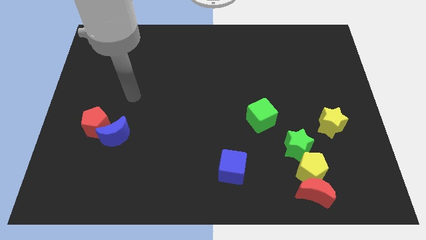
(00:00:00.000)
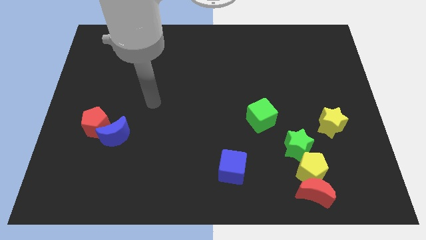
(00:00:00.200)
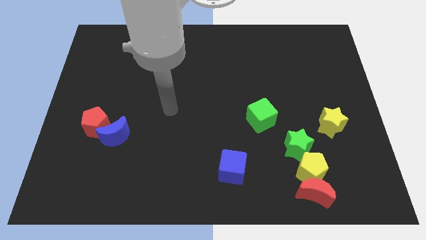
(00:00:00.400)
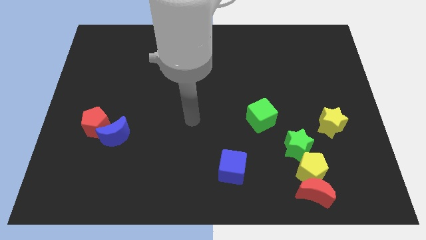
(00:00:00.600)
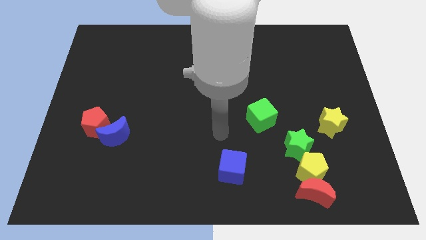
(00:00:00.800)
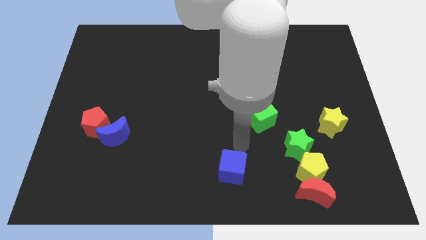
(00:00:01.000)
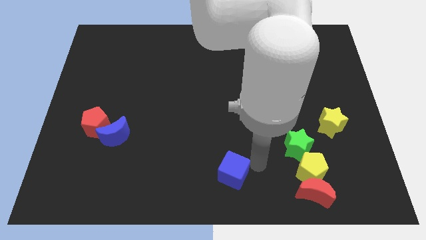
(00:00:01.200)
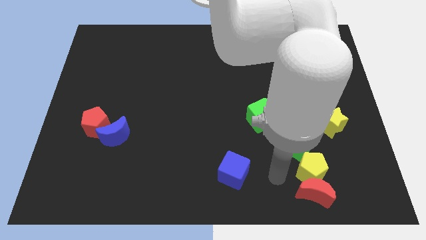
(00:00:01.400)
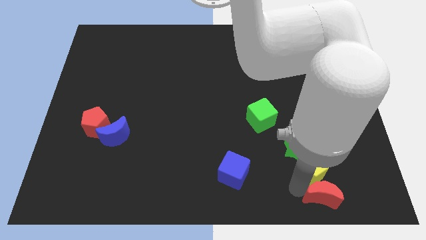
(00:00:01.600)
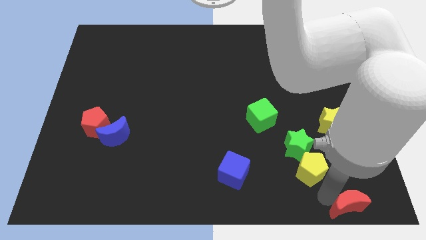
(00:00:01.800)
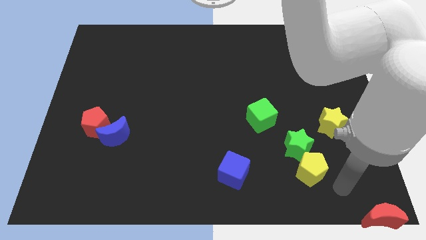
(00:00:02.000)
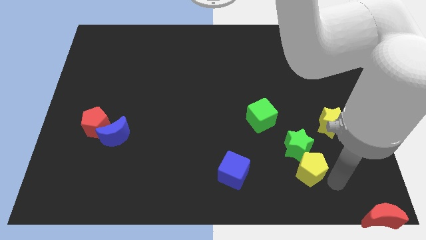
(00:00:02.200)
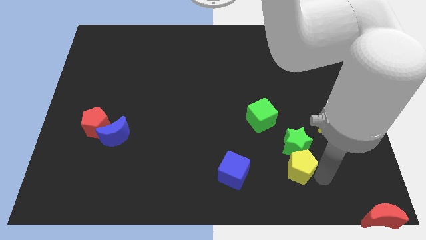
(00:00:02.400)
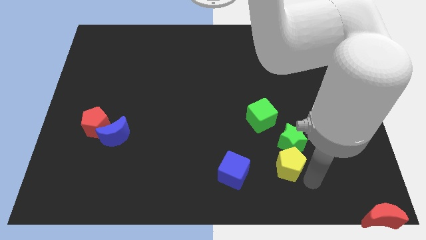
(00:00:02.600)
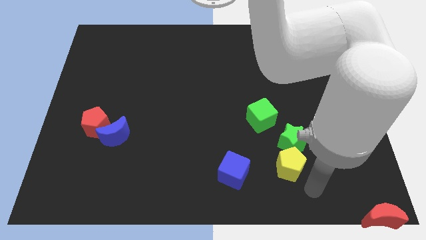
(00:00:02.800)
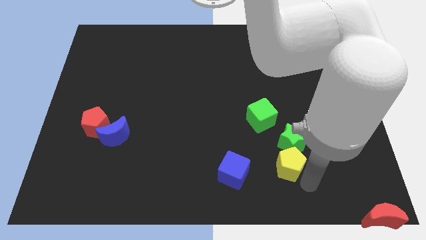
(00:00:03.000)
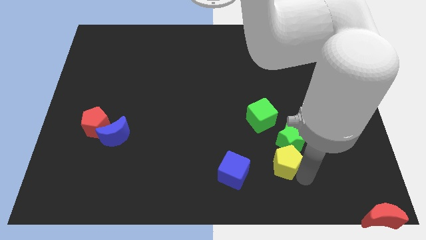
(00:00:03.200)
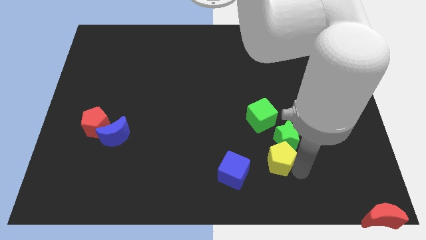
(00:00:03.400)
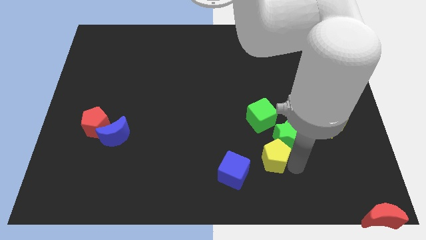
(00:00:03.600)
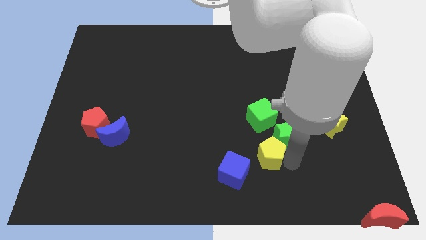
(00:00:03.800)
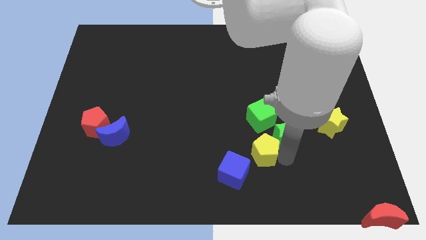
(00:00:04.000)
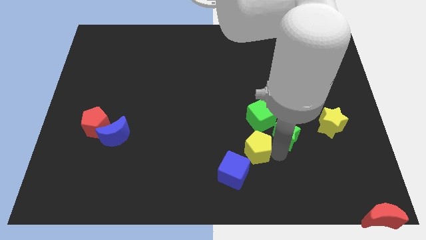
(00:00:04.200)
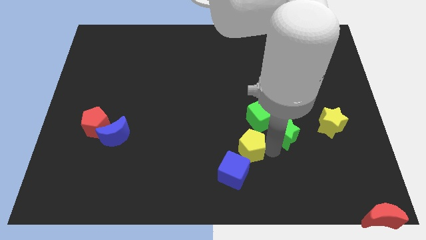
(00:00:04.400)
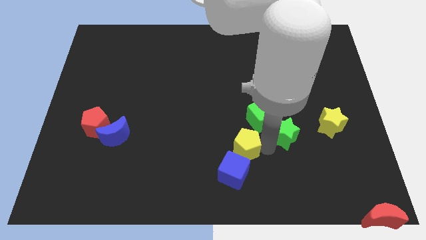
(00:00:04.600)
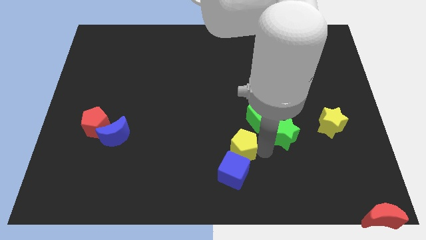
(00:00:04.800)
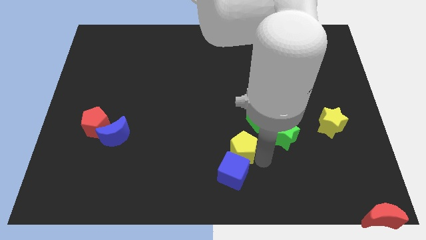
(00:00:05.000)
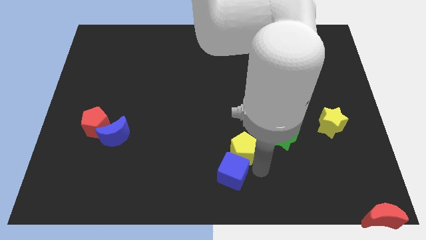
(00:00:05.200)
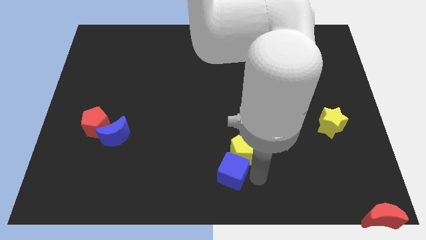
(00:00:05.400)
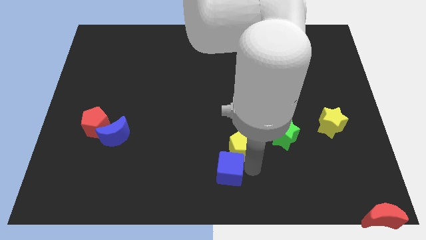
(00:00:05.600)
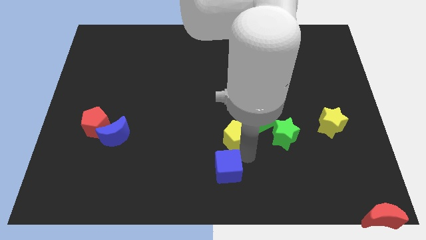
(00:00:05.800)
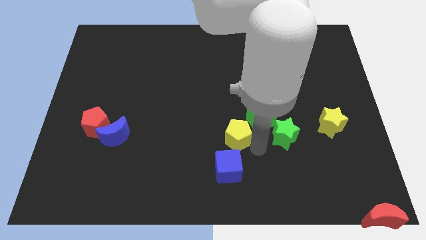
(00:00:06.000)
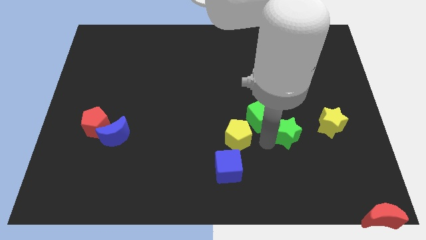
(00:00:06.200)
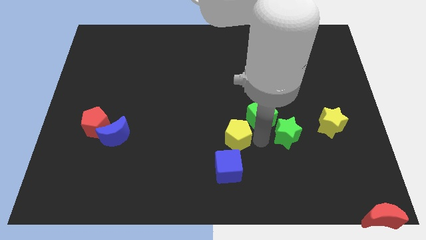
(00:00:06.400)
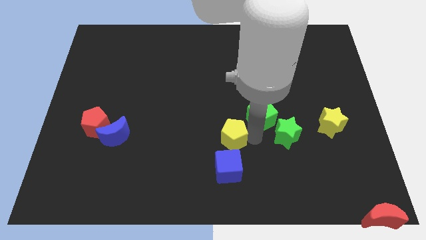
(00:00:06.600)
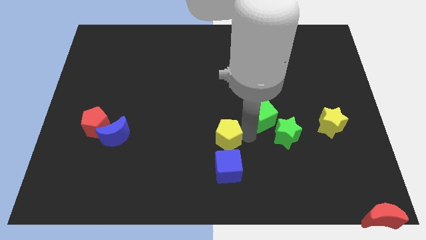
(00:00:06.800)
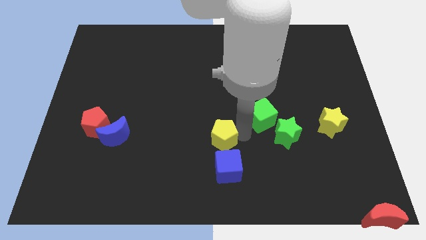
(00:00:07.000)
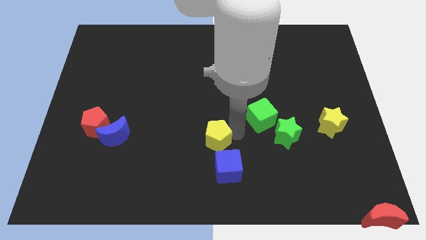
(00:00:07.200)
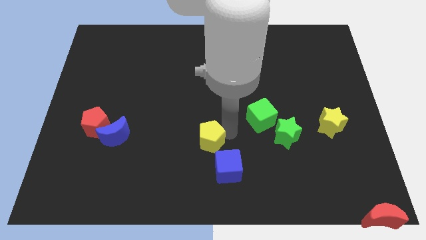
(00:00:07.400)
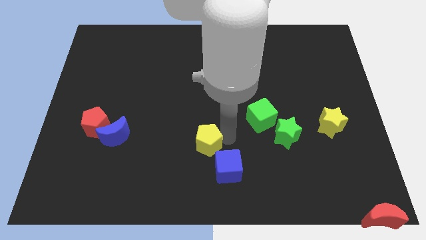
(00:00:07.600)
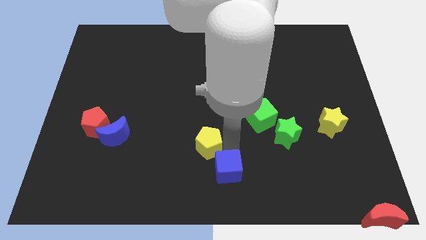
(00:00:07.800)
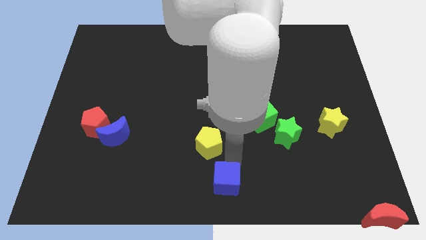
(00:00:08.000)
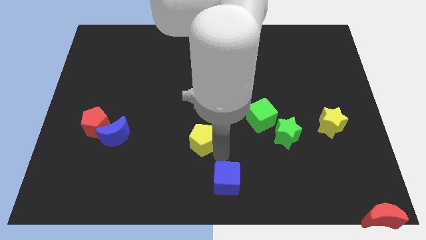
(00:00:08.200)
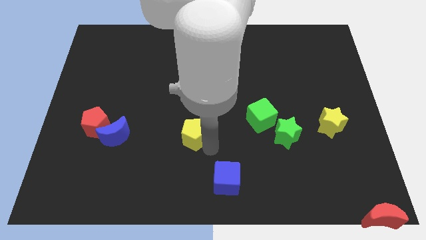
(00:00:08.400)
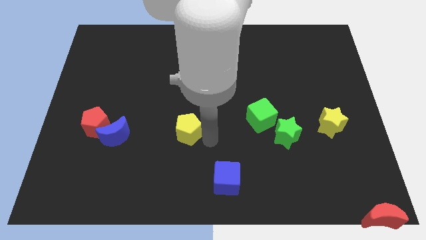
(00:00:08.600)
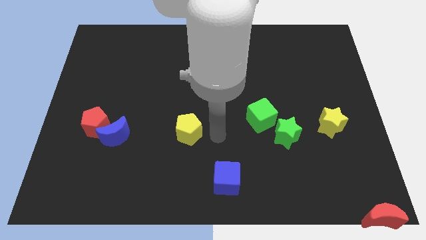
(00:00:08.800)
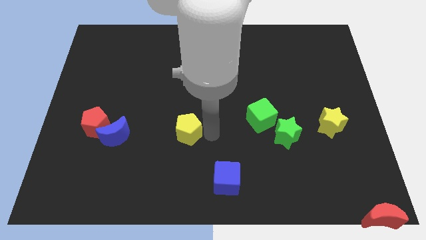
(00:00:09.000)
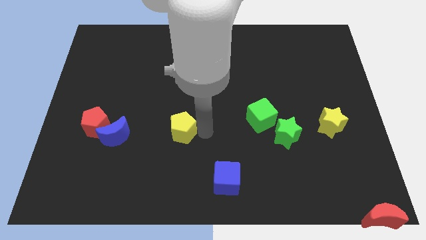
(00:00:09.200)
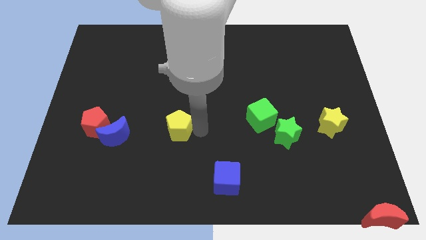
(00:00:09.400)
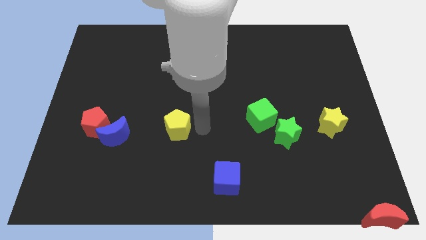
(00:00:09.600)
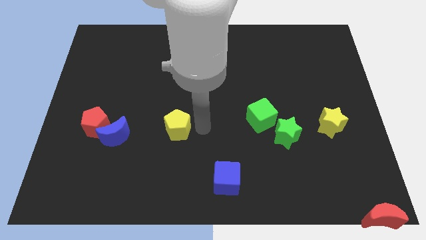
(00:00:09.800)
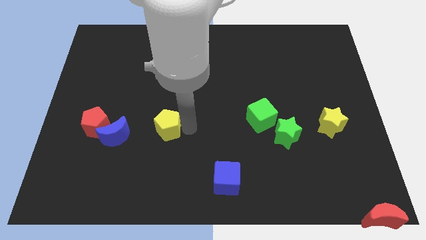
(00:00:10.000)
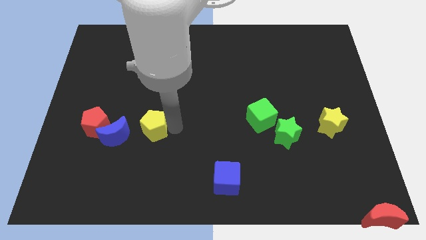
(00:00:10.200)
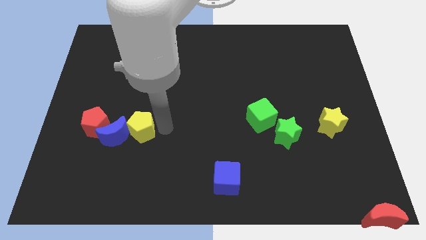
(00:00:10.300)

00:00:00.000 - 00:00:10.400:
put the yellow pentagon to the blue moon

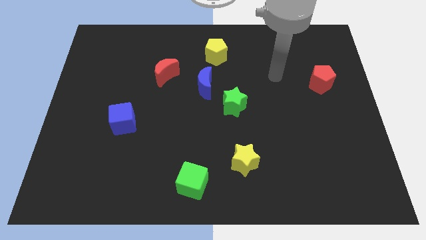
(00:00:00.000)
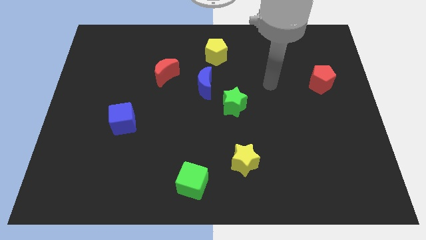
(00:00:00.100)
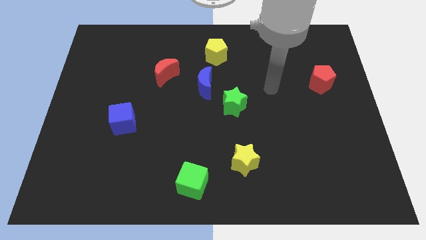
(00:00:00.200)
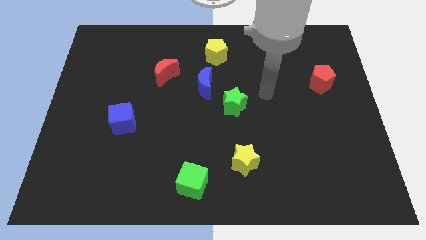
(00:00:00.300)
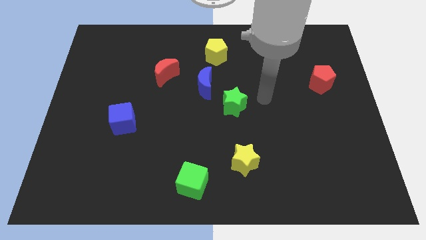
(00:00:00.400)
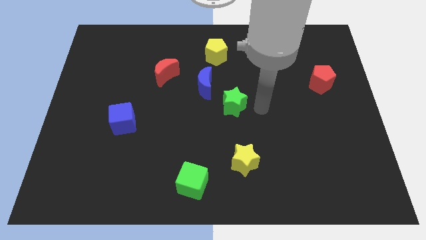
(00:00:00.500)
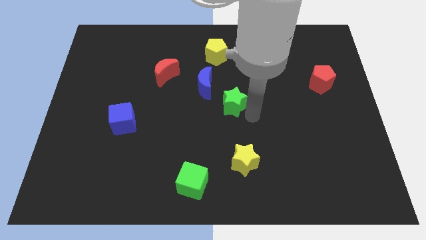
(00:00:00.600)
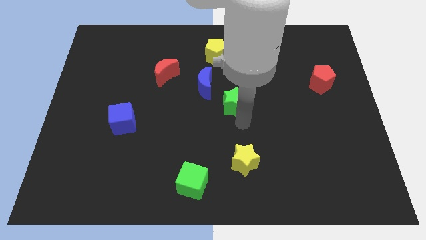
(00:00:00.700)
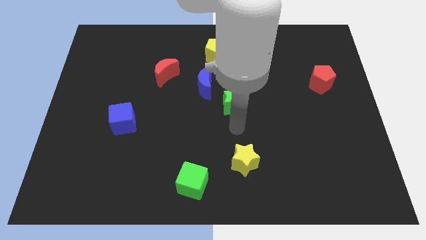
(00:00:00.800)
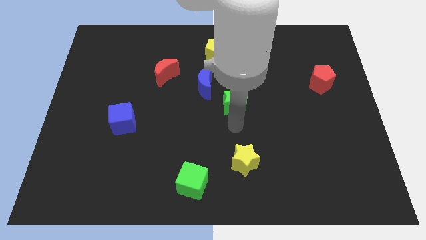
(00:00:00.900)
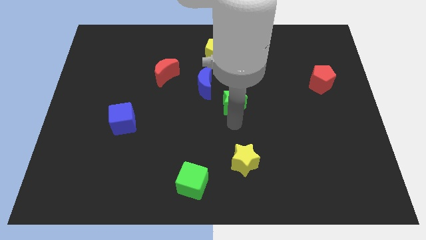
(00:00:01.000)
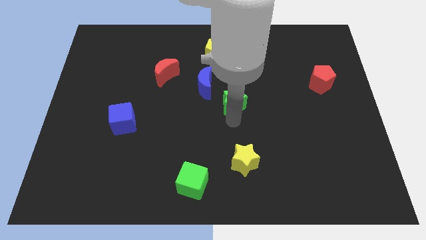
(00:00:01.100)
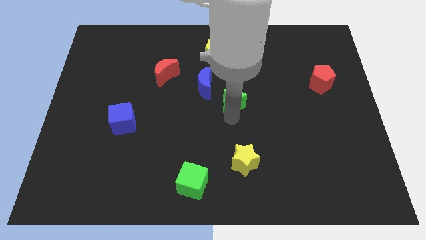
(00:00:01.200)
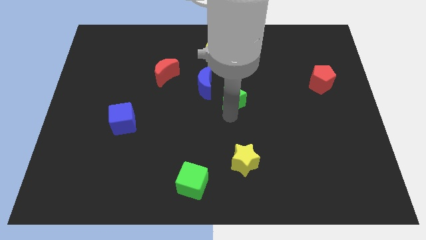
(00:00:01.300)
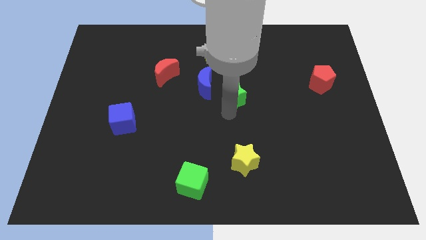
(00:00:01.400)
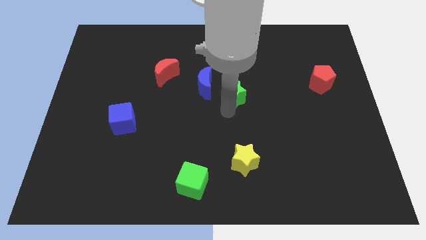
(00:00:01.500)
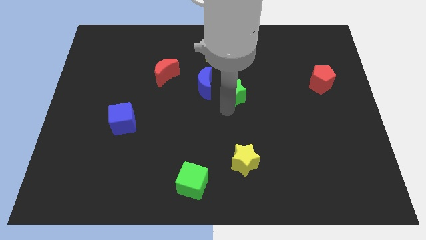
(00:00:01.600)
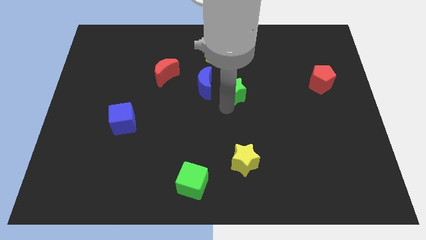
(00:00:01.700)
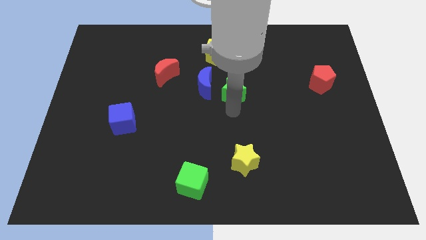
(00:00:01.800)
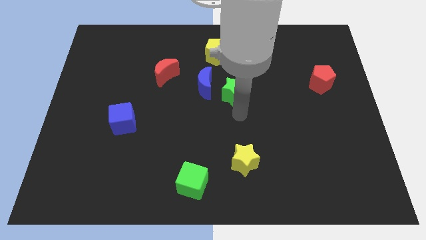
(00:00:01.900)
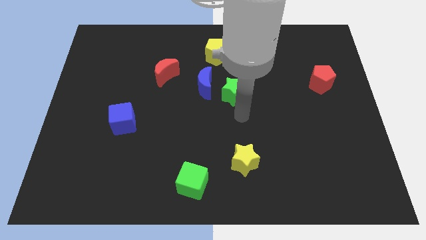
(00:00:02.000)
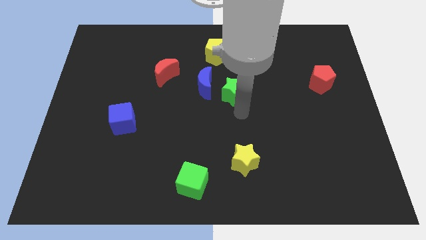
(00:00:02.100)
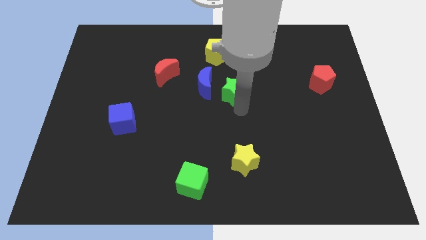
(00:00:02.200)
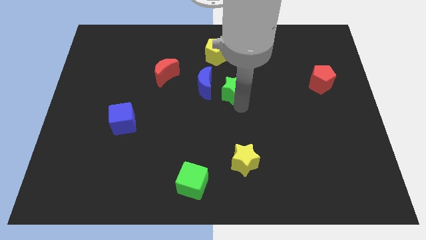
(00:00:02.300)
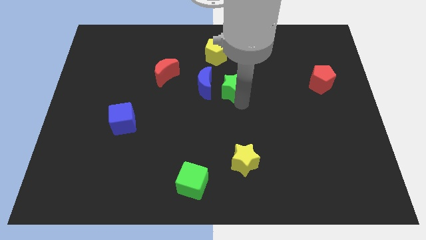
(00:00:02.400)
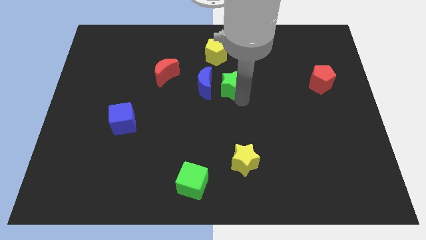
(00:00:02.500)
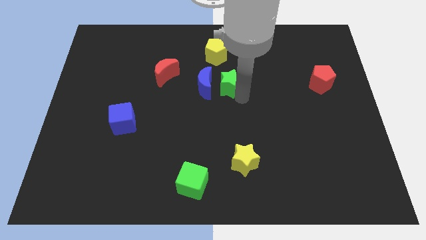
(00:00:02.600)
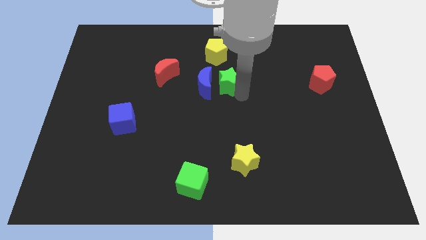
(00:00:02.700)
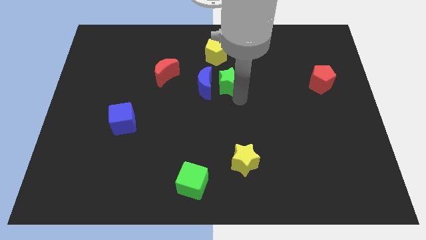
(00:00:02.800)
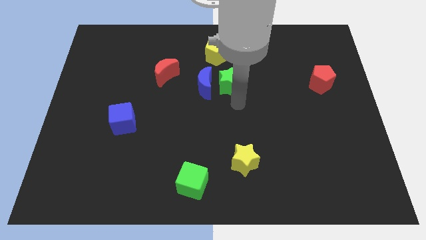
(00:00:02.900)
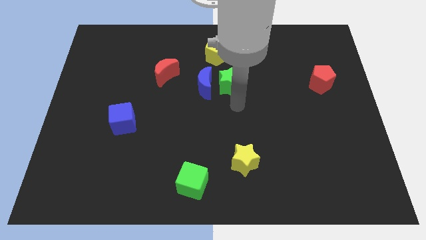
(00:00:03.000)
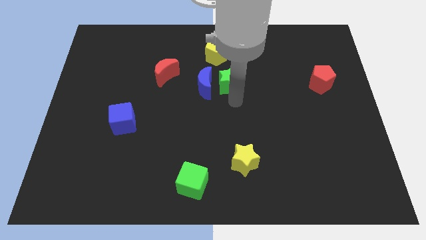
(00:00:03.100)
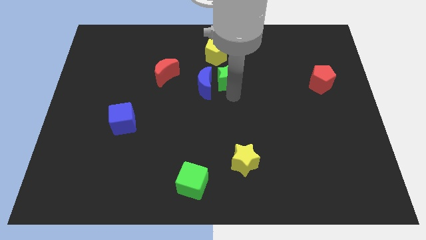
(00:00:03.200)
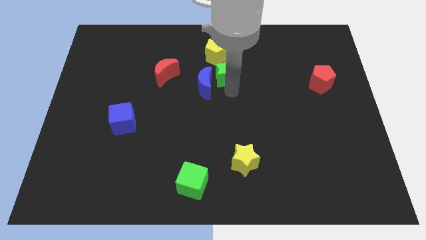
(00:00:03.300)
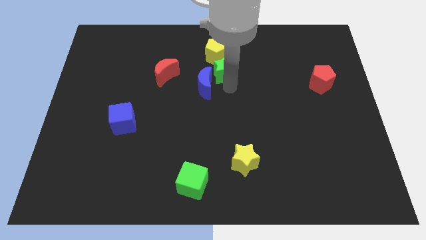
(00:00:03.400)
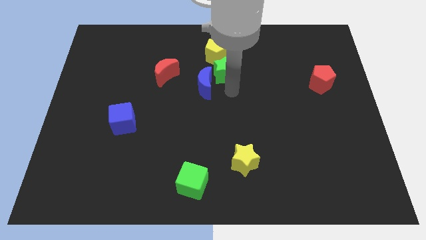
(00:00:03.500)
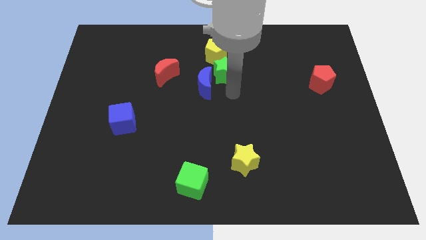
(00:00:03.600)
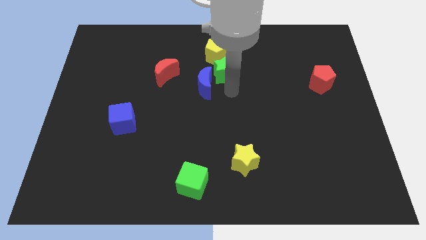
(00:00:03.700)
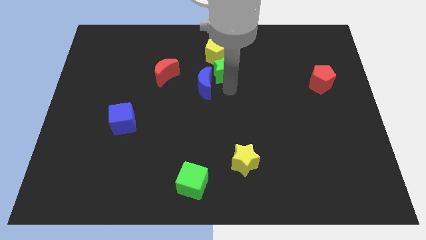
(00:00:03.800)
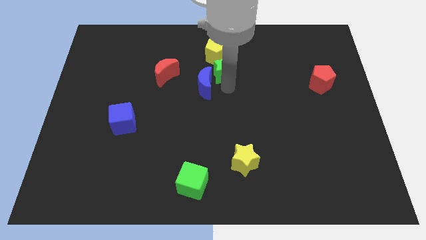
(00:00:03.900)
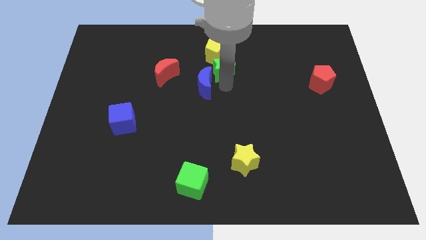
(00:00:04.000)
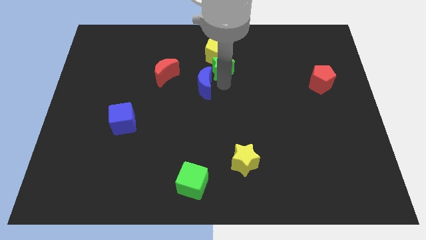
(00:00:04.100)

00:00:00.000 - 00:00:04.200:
slide the green star close to the yellow pentagon
